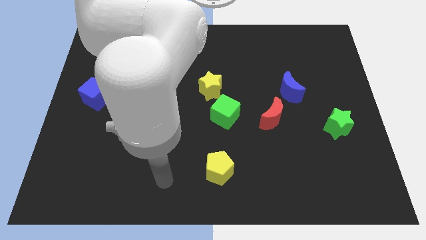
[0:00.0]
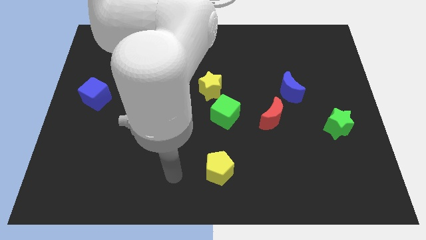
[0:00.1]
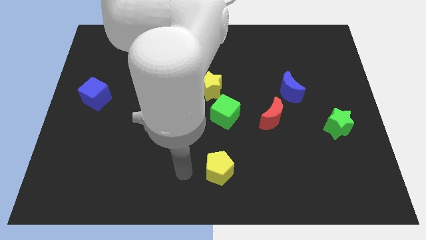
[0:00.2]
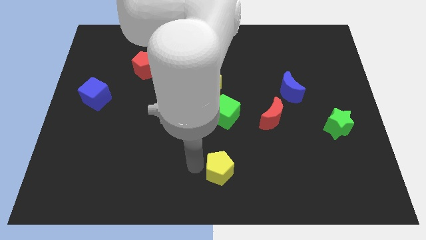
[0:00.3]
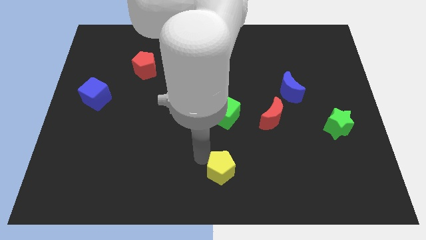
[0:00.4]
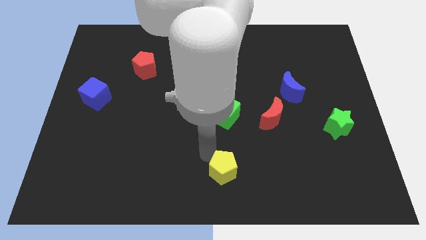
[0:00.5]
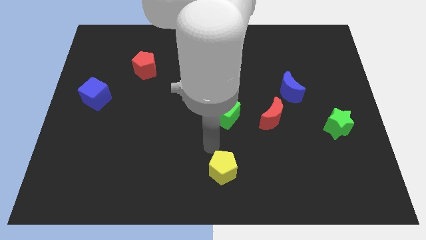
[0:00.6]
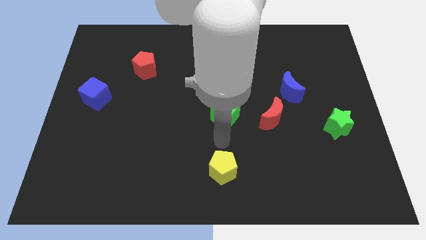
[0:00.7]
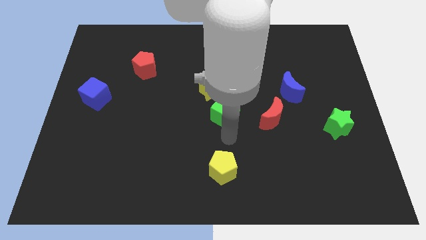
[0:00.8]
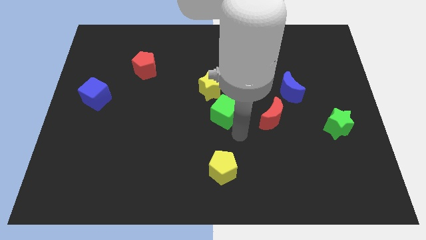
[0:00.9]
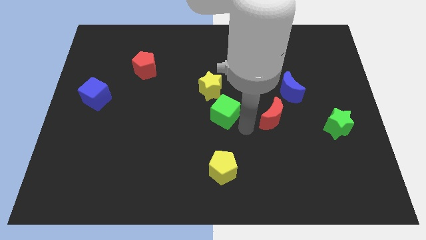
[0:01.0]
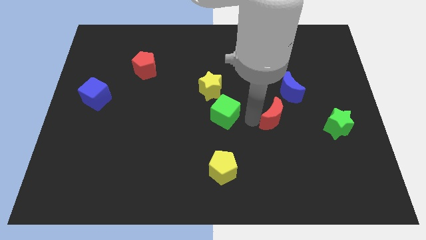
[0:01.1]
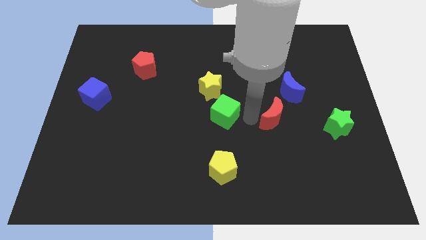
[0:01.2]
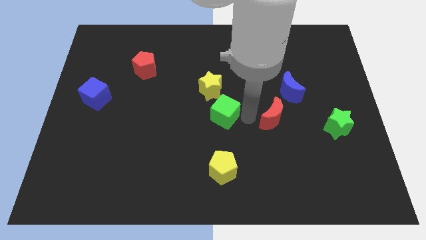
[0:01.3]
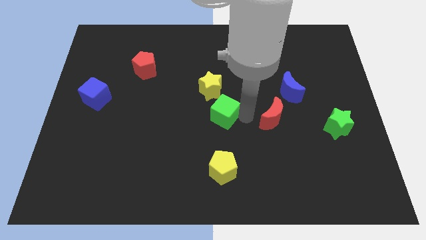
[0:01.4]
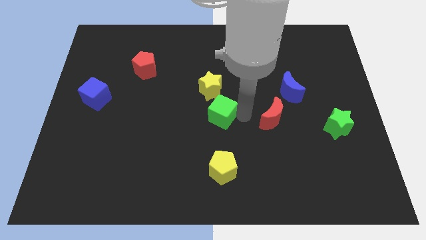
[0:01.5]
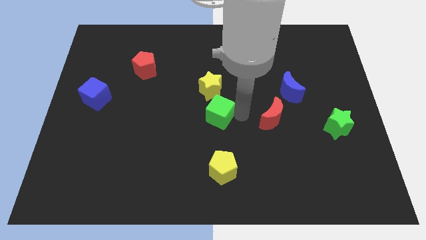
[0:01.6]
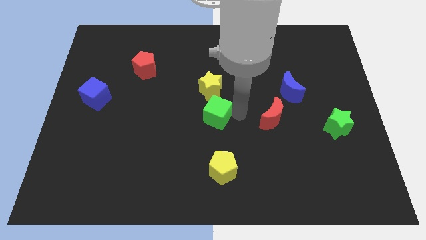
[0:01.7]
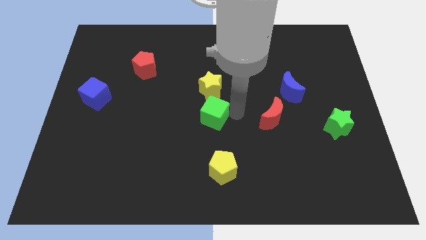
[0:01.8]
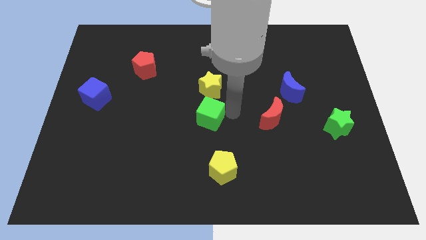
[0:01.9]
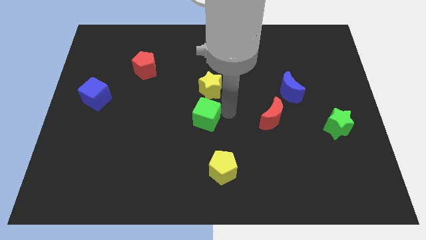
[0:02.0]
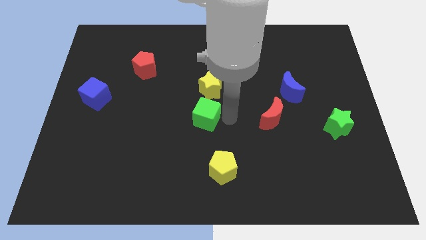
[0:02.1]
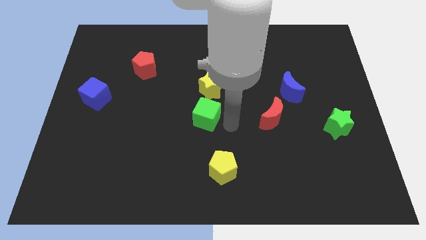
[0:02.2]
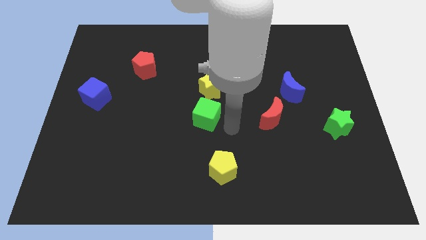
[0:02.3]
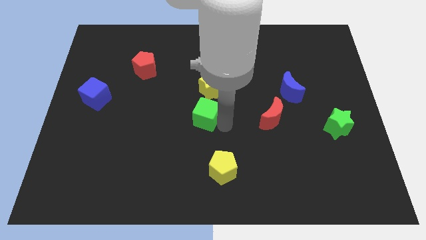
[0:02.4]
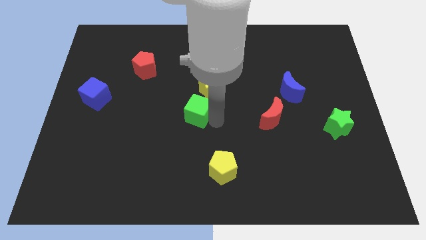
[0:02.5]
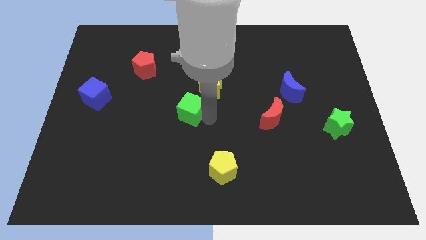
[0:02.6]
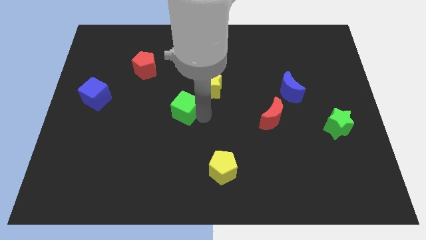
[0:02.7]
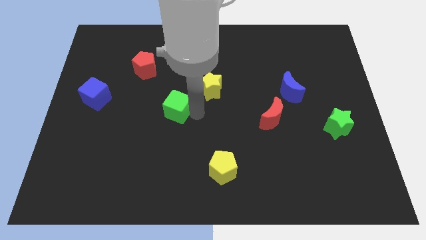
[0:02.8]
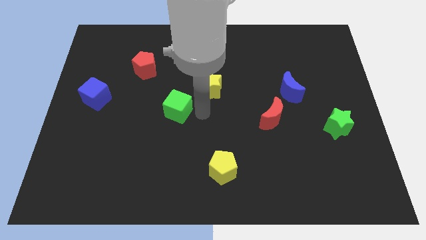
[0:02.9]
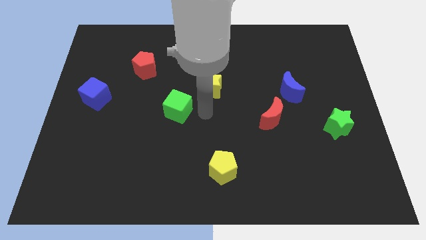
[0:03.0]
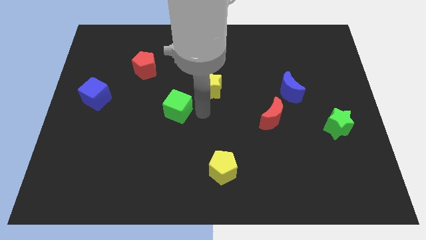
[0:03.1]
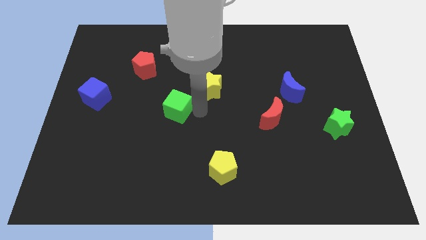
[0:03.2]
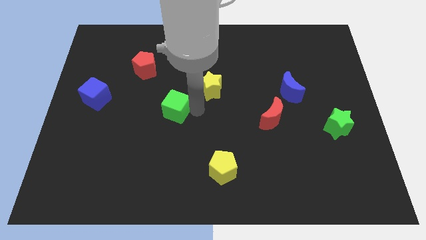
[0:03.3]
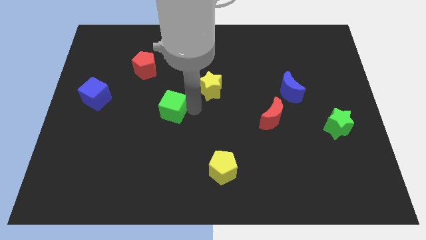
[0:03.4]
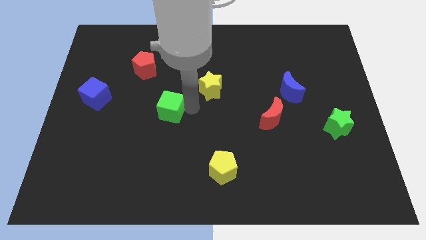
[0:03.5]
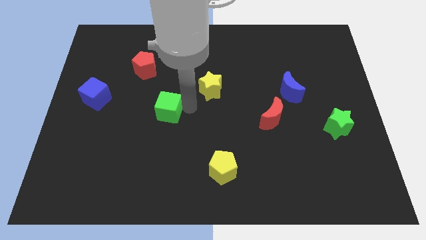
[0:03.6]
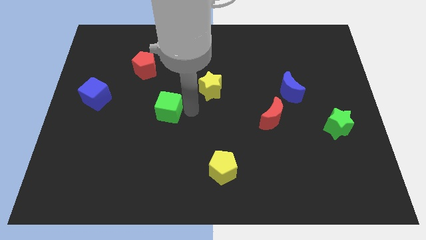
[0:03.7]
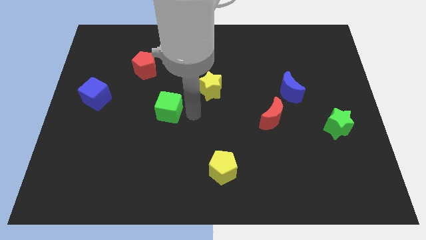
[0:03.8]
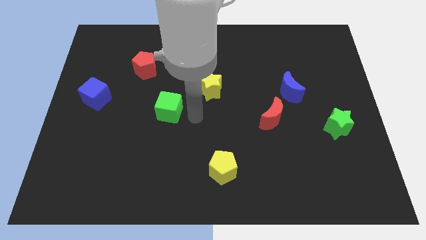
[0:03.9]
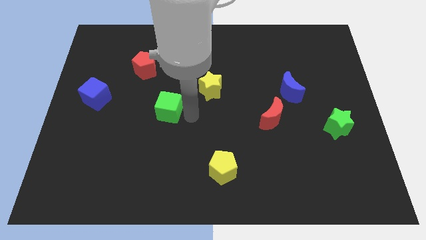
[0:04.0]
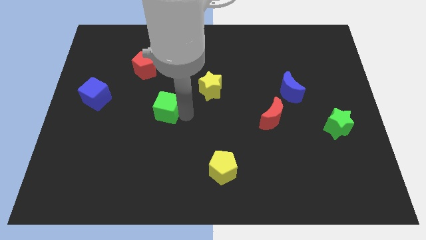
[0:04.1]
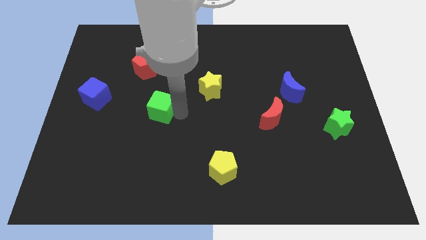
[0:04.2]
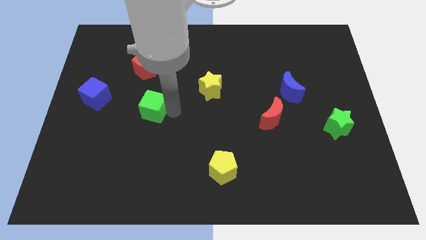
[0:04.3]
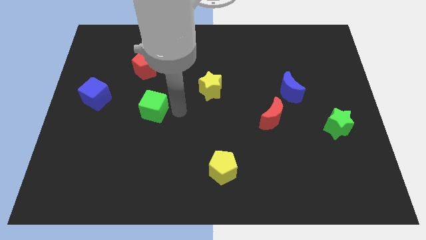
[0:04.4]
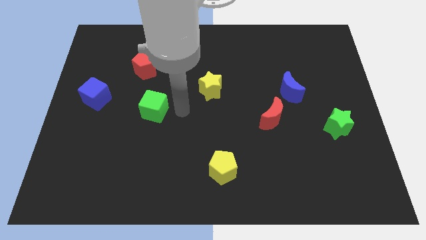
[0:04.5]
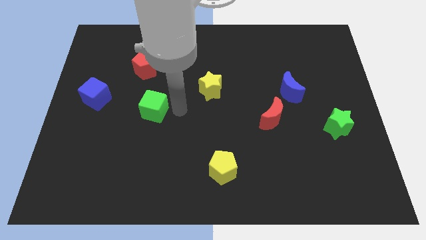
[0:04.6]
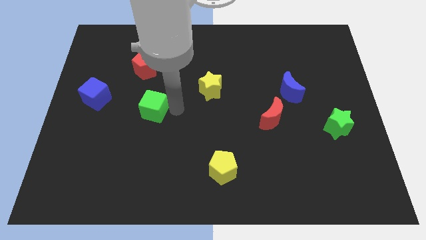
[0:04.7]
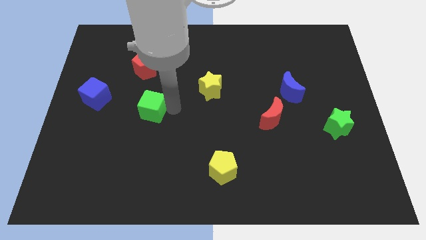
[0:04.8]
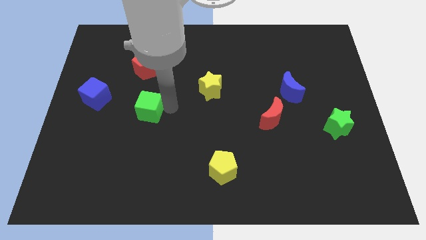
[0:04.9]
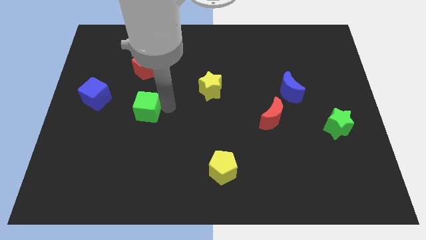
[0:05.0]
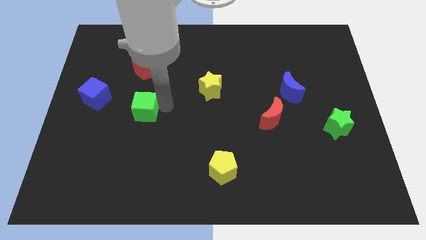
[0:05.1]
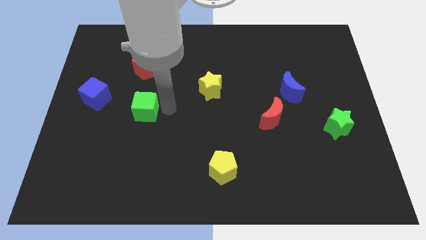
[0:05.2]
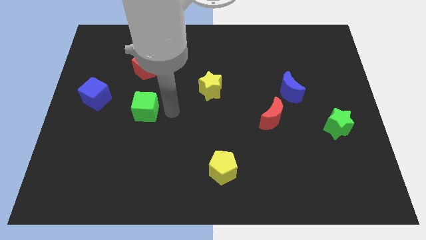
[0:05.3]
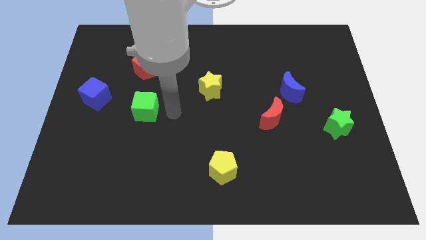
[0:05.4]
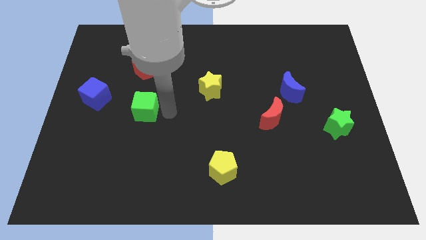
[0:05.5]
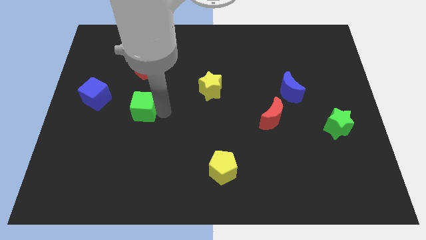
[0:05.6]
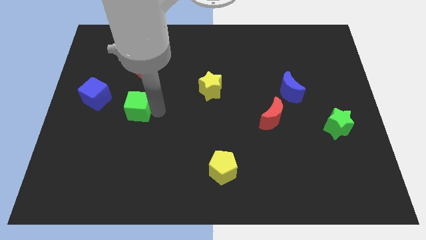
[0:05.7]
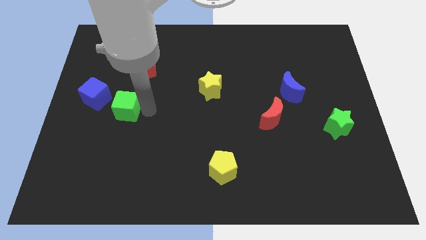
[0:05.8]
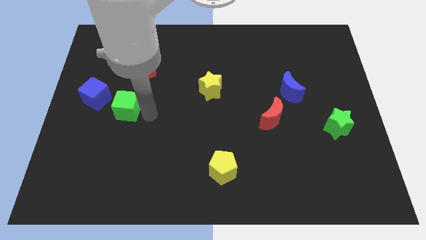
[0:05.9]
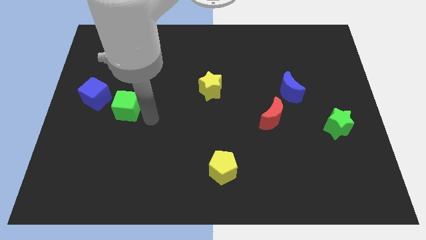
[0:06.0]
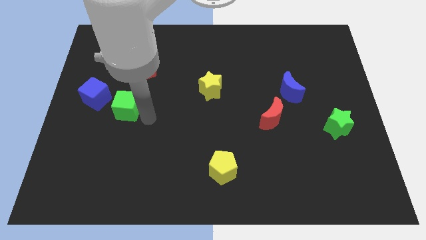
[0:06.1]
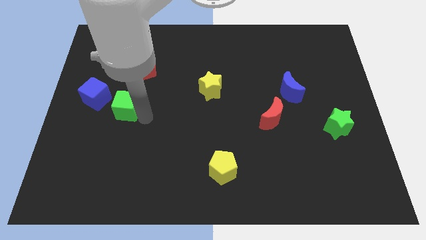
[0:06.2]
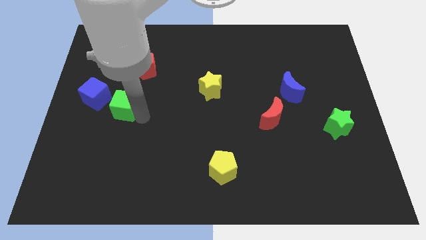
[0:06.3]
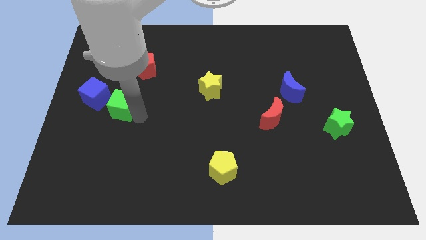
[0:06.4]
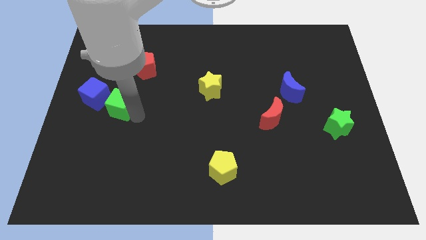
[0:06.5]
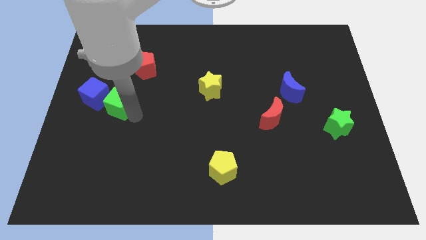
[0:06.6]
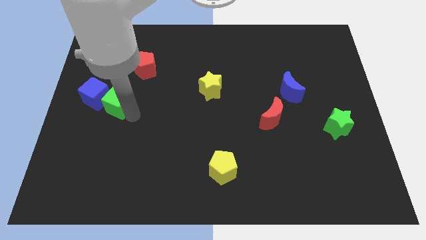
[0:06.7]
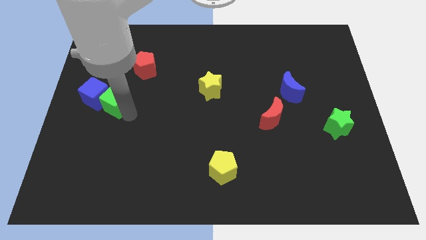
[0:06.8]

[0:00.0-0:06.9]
put the green cube towards the blue cube

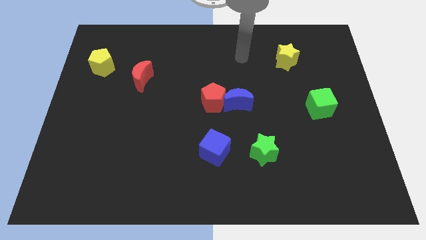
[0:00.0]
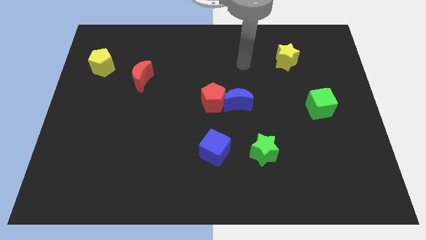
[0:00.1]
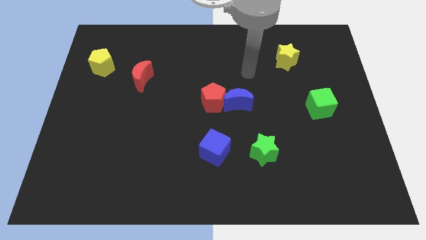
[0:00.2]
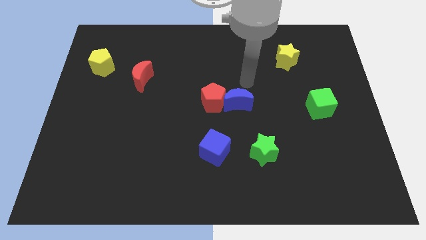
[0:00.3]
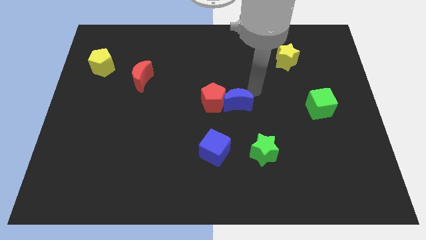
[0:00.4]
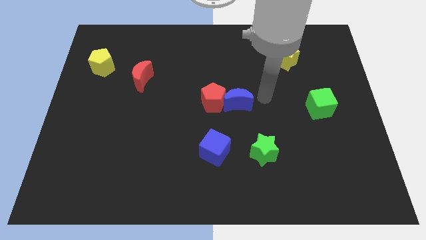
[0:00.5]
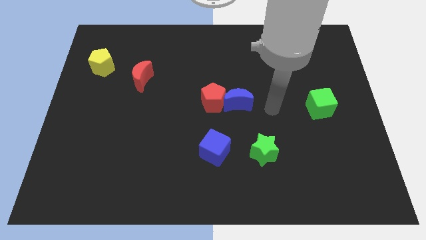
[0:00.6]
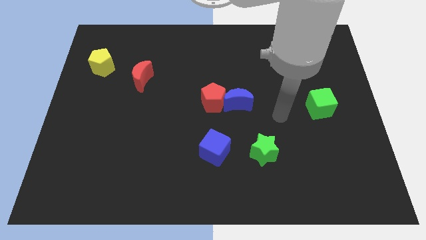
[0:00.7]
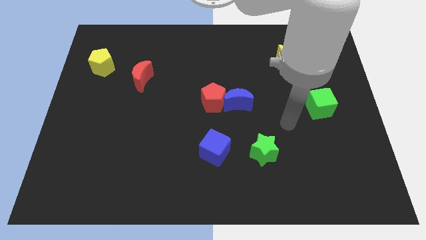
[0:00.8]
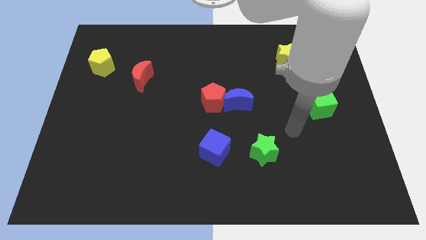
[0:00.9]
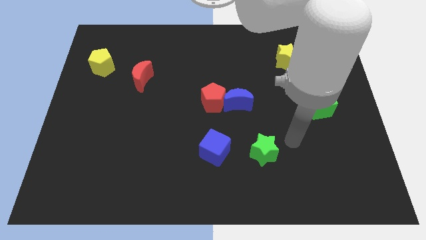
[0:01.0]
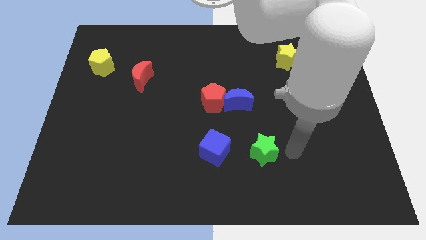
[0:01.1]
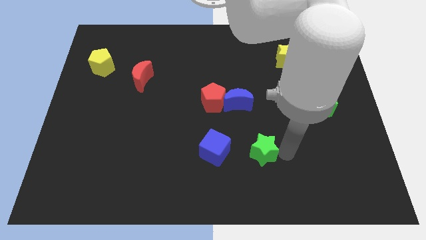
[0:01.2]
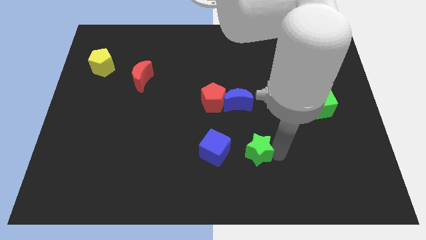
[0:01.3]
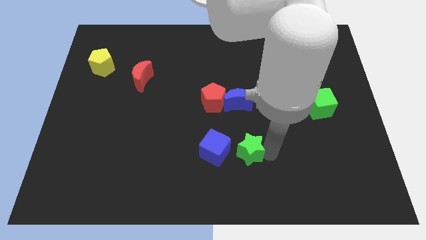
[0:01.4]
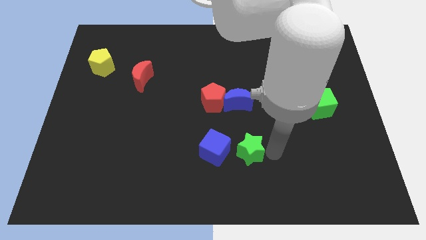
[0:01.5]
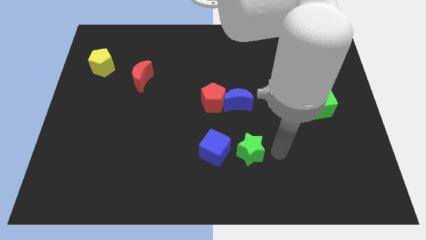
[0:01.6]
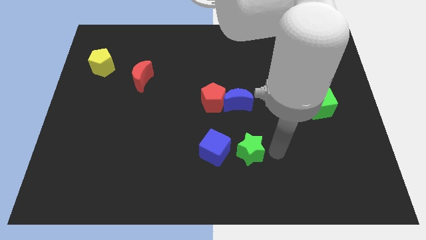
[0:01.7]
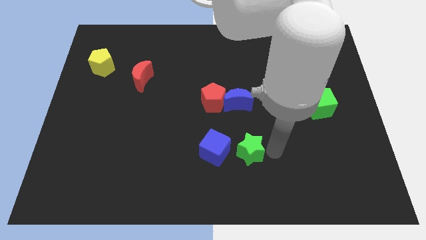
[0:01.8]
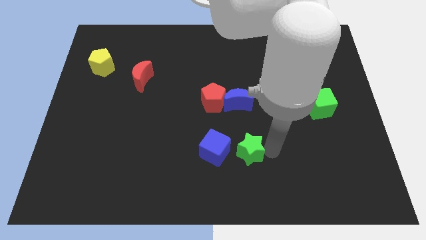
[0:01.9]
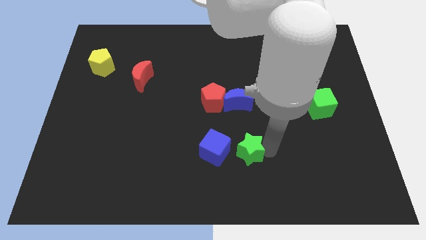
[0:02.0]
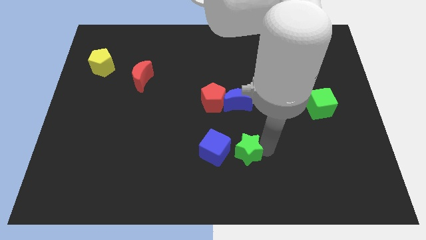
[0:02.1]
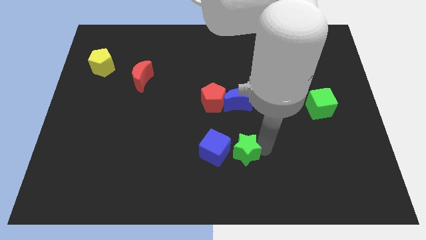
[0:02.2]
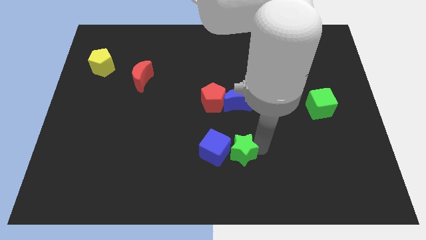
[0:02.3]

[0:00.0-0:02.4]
slide the green star close to the blue cube
